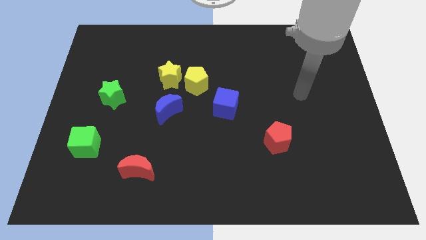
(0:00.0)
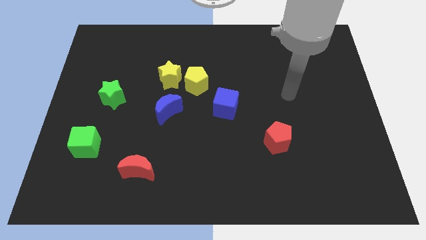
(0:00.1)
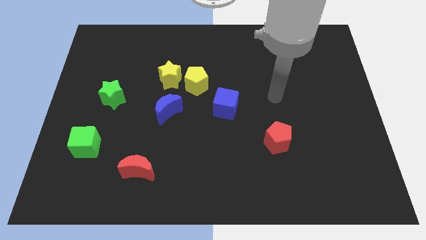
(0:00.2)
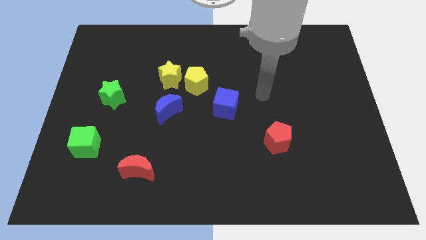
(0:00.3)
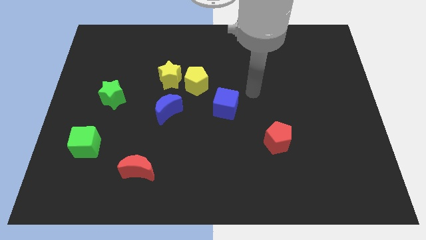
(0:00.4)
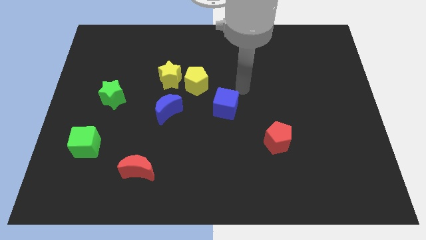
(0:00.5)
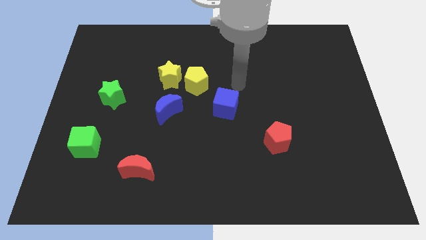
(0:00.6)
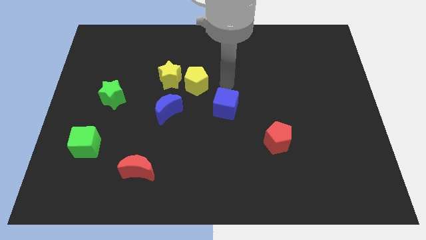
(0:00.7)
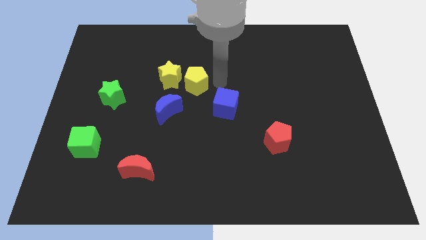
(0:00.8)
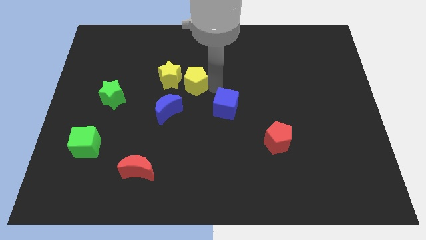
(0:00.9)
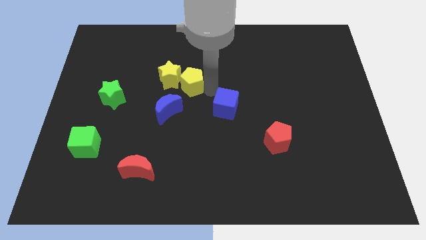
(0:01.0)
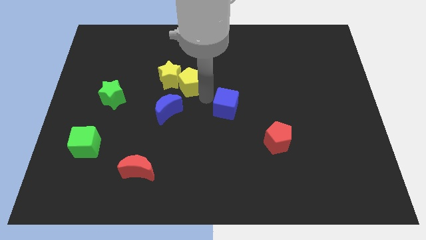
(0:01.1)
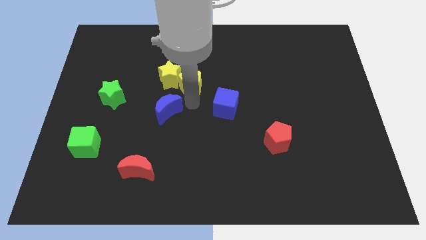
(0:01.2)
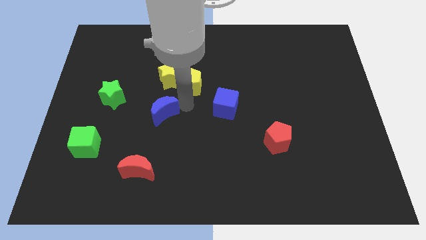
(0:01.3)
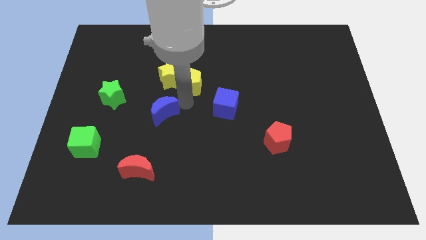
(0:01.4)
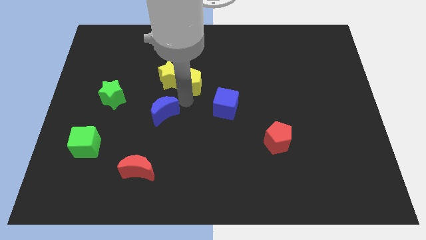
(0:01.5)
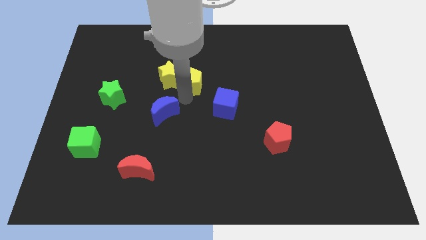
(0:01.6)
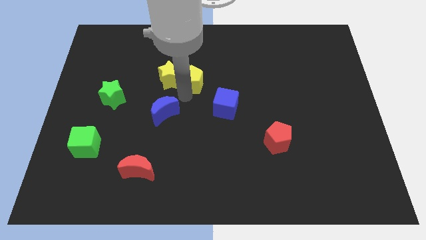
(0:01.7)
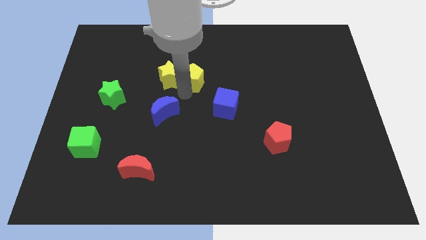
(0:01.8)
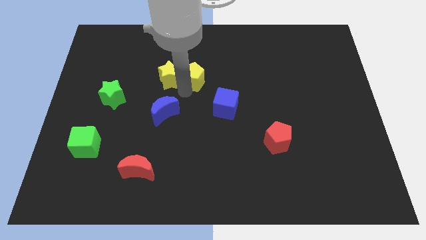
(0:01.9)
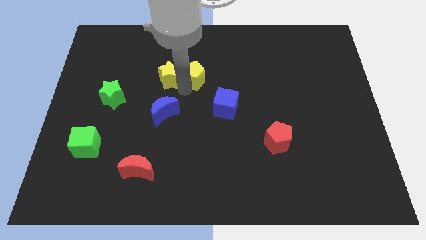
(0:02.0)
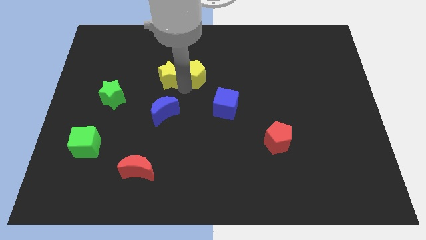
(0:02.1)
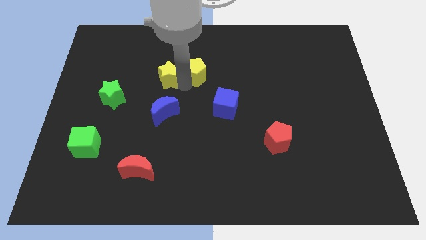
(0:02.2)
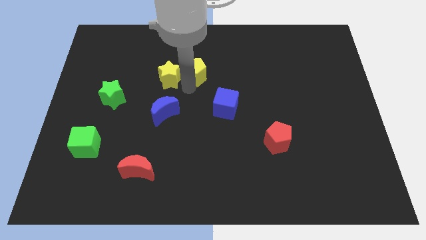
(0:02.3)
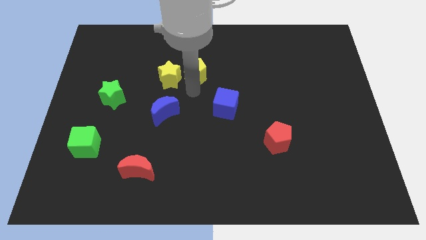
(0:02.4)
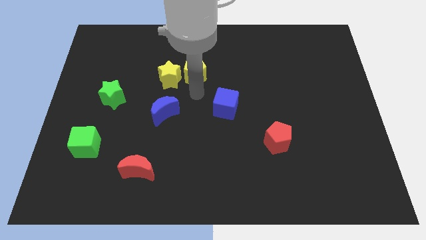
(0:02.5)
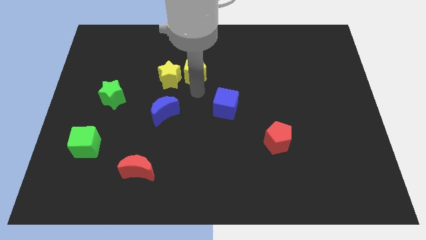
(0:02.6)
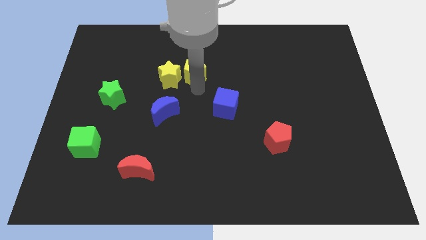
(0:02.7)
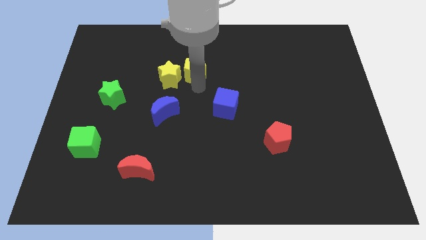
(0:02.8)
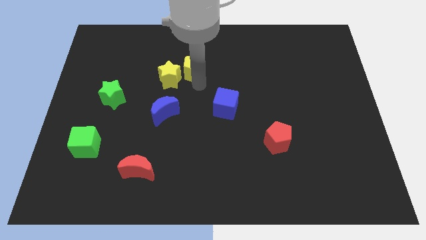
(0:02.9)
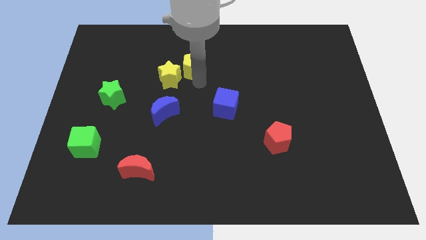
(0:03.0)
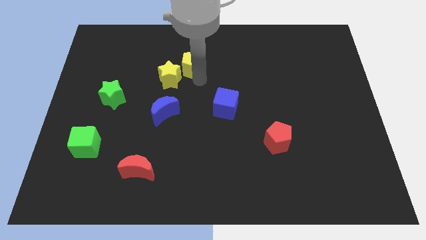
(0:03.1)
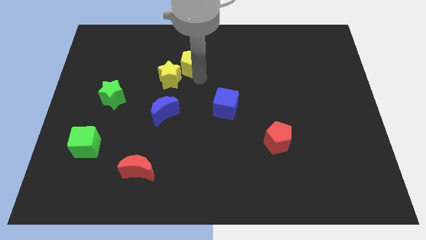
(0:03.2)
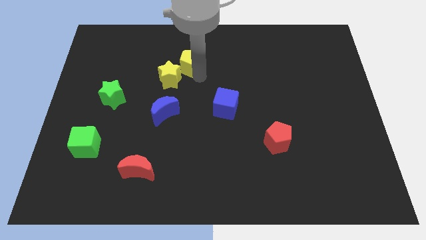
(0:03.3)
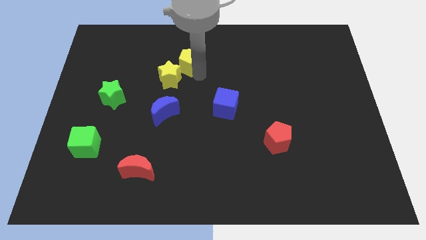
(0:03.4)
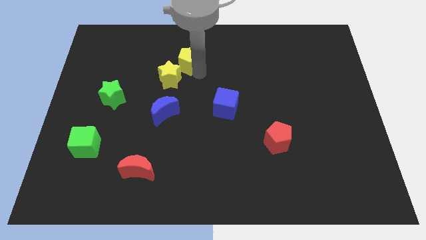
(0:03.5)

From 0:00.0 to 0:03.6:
separate the yellow pentagon from the yellow star and blue cube

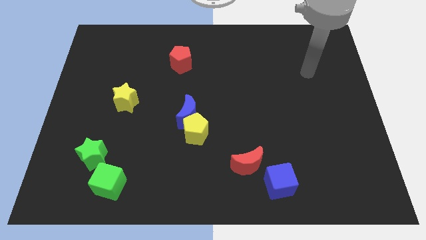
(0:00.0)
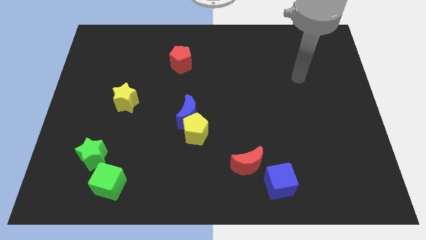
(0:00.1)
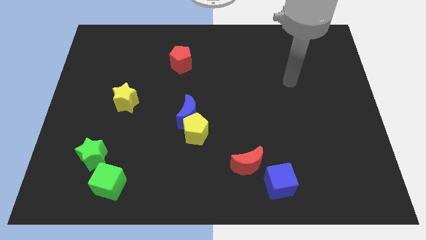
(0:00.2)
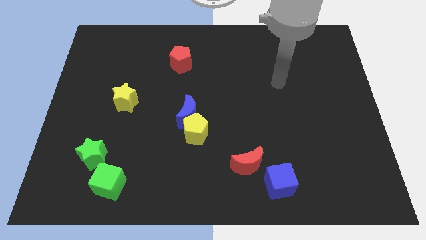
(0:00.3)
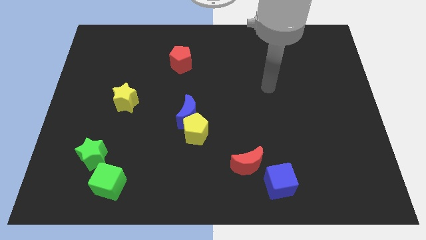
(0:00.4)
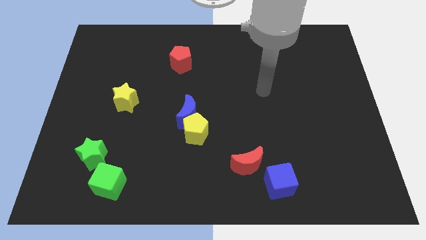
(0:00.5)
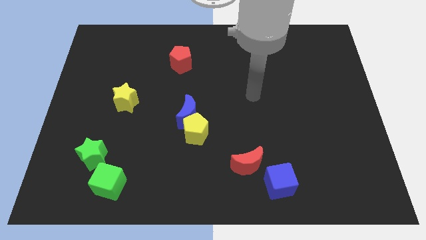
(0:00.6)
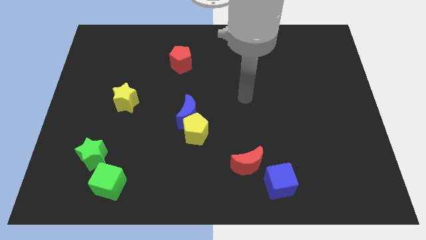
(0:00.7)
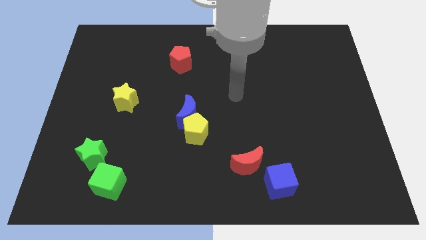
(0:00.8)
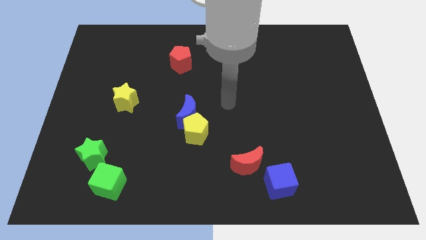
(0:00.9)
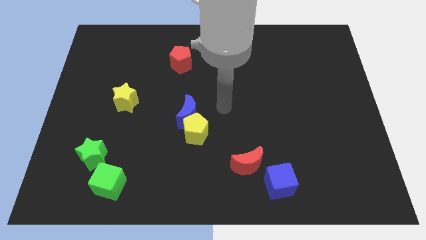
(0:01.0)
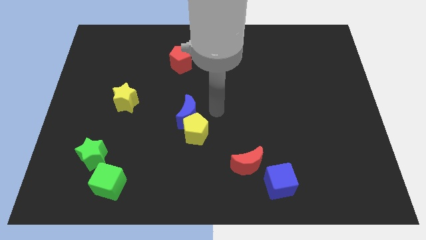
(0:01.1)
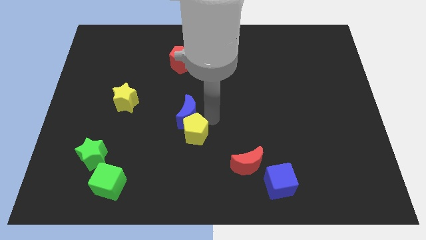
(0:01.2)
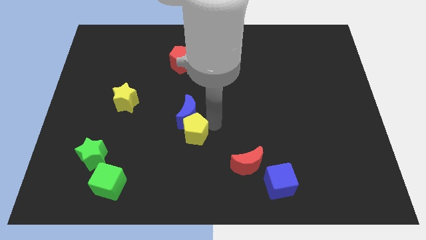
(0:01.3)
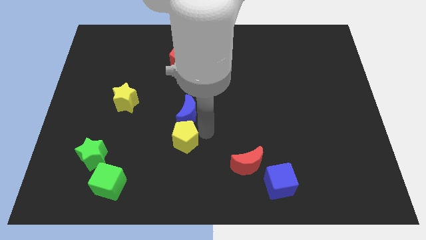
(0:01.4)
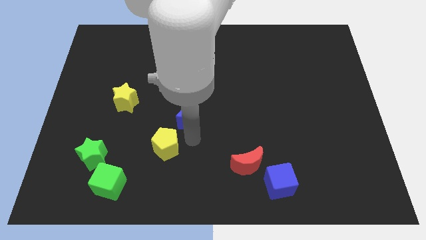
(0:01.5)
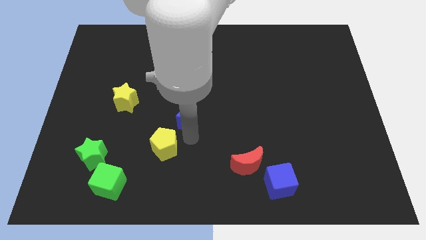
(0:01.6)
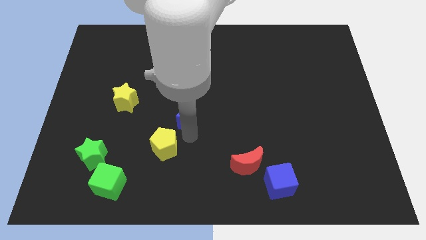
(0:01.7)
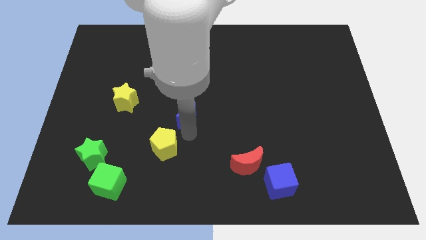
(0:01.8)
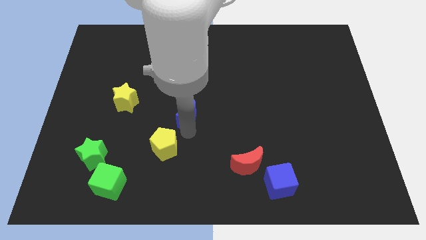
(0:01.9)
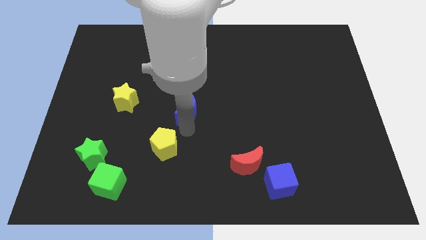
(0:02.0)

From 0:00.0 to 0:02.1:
move the blue moon away from the yellow pentagon

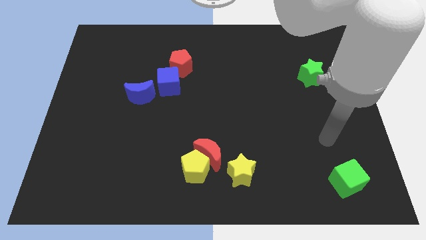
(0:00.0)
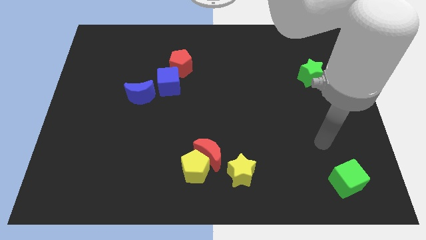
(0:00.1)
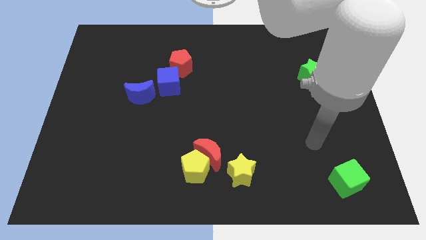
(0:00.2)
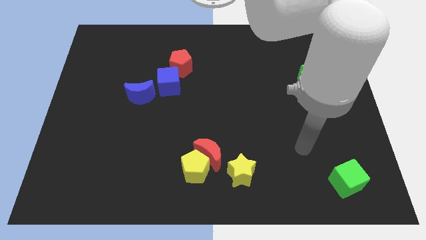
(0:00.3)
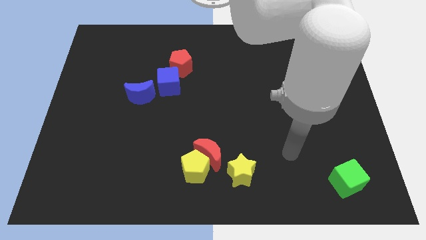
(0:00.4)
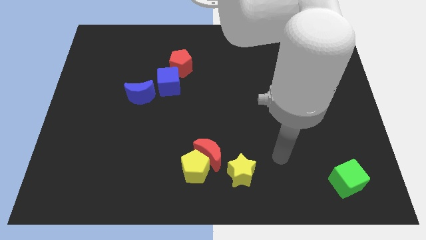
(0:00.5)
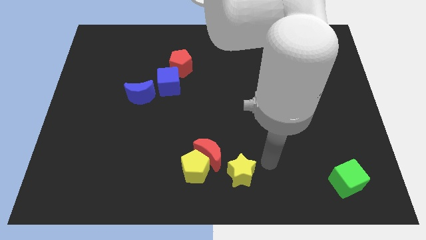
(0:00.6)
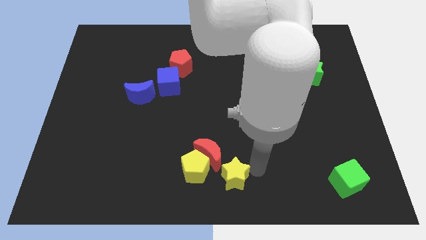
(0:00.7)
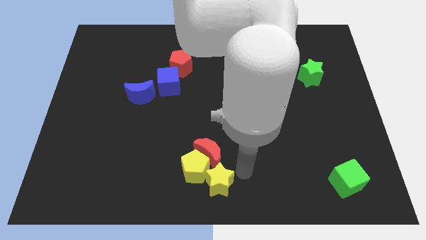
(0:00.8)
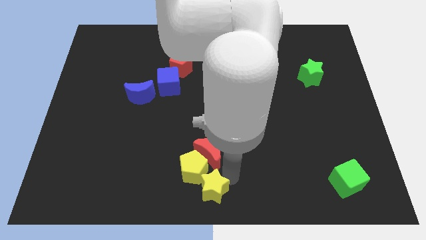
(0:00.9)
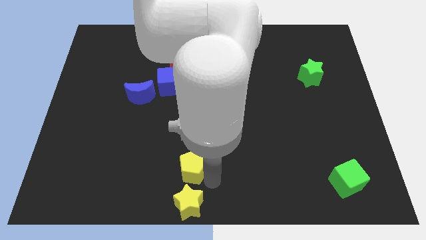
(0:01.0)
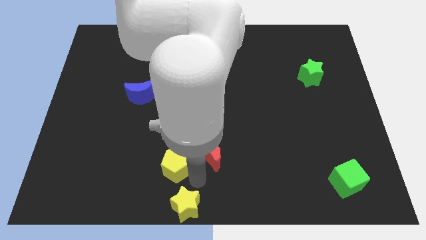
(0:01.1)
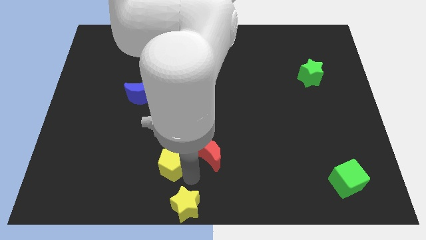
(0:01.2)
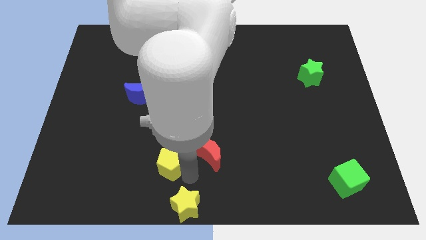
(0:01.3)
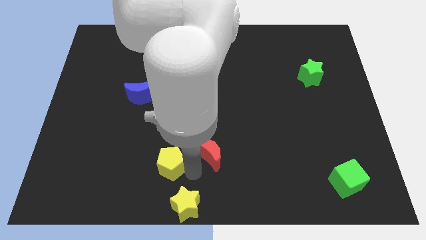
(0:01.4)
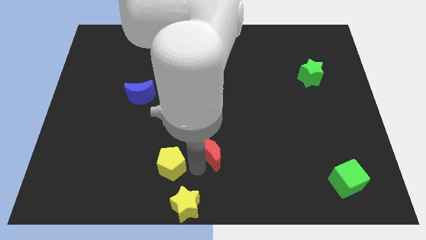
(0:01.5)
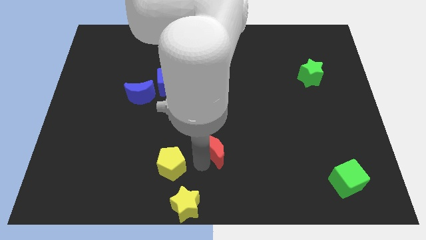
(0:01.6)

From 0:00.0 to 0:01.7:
move the red moon away from the yellow pentagon and yellow star

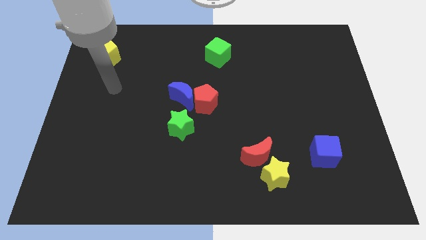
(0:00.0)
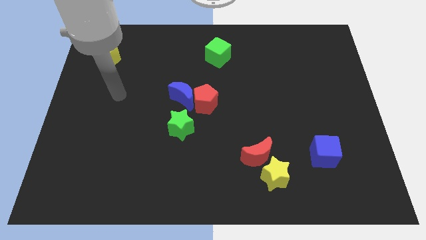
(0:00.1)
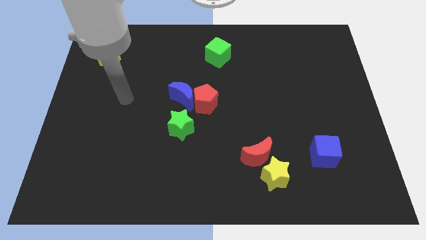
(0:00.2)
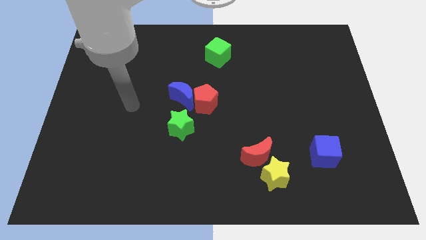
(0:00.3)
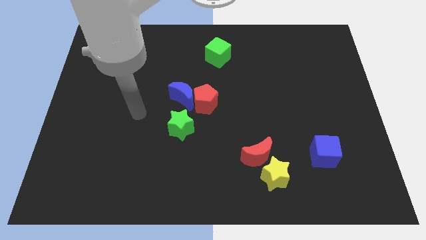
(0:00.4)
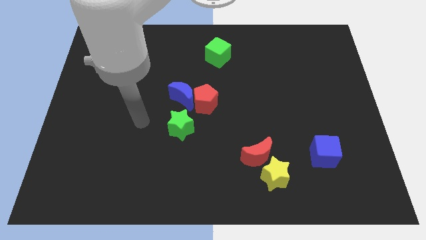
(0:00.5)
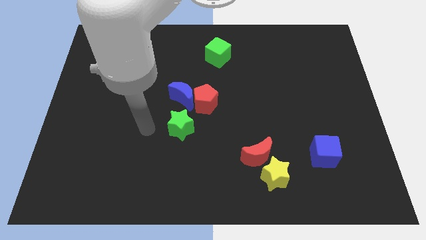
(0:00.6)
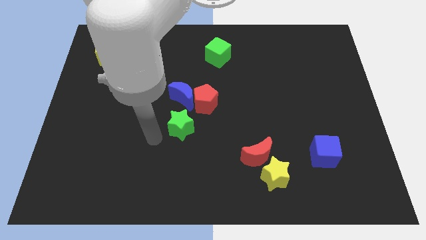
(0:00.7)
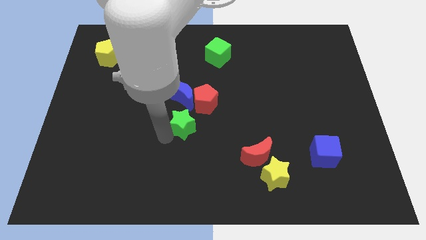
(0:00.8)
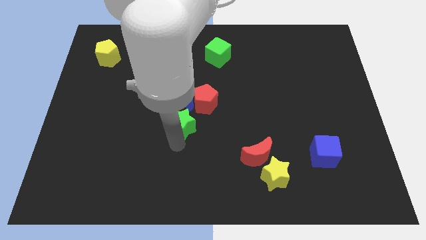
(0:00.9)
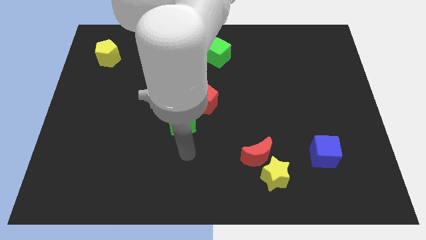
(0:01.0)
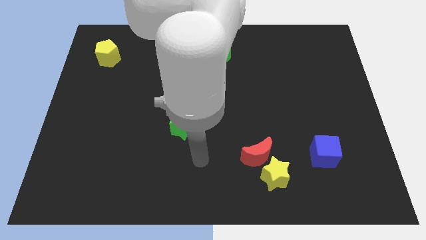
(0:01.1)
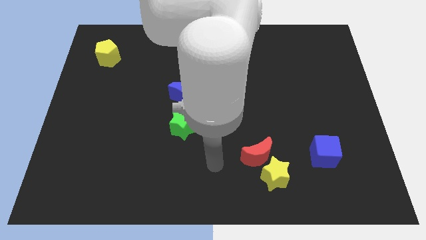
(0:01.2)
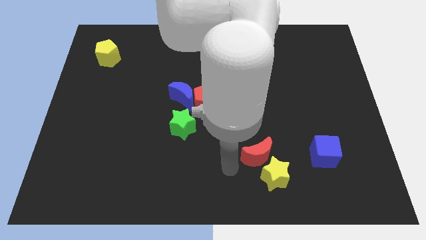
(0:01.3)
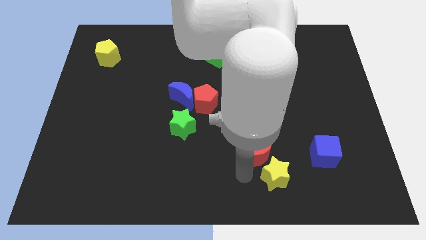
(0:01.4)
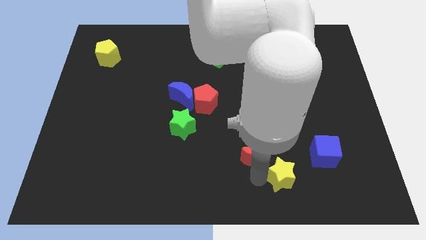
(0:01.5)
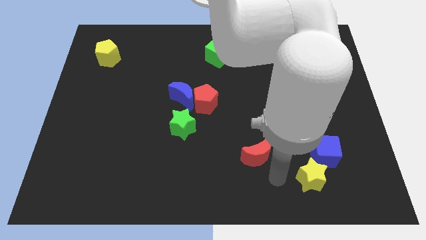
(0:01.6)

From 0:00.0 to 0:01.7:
move the red moon away from the yellow star

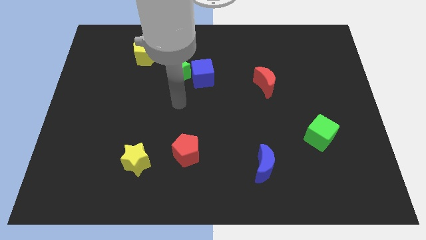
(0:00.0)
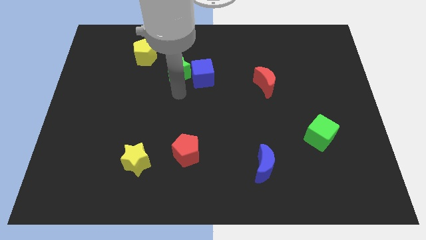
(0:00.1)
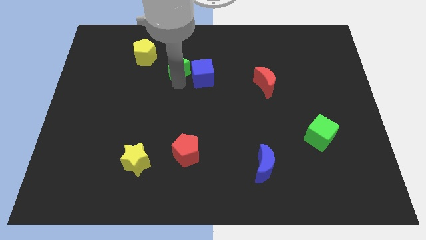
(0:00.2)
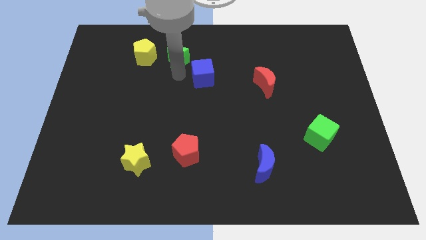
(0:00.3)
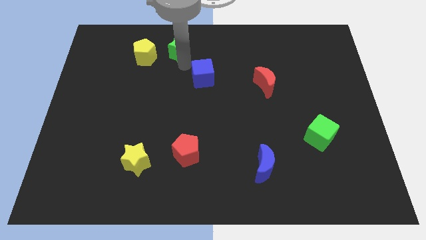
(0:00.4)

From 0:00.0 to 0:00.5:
separate the blue cube from the green star
